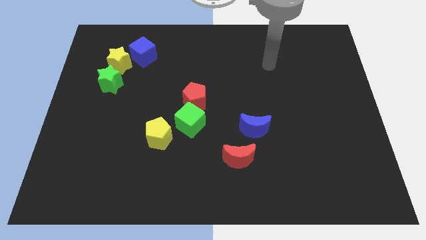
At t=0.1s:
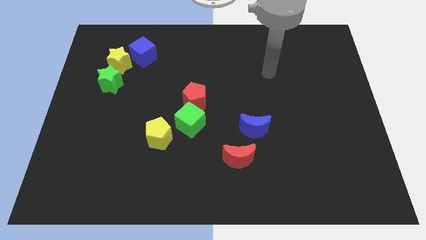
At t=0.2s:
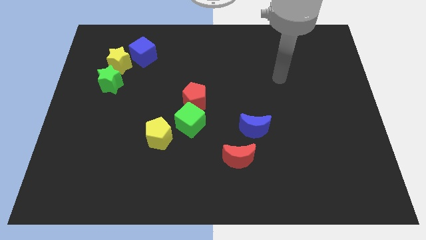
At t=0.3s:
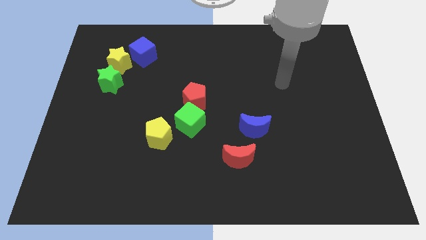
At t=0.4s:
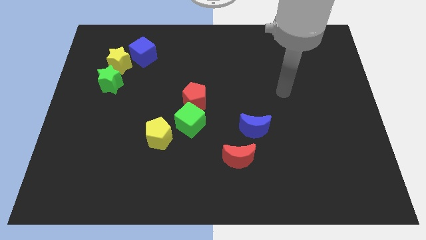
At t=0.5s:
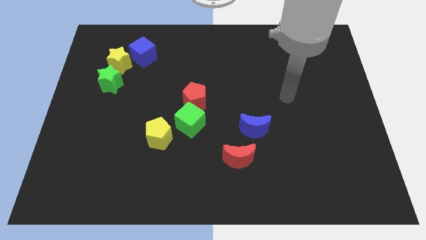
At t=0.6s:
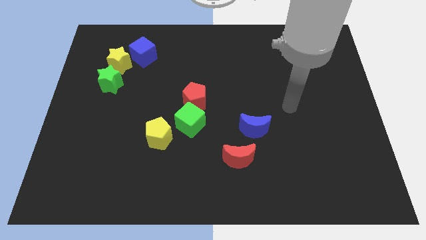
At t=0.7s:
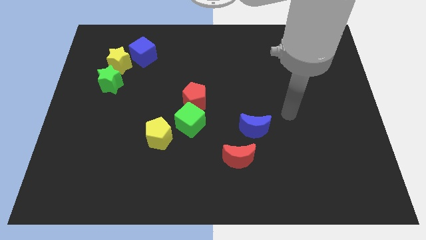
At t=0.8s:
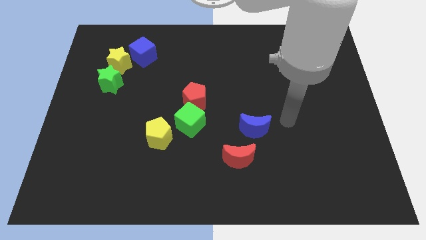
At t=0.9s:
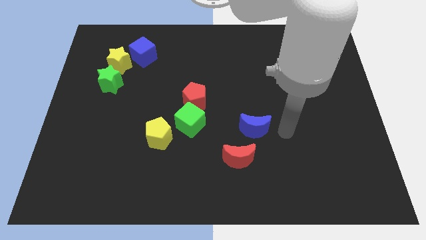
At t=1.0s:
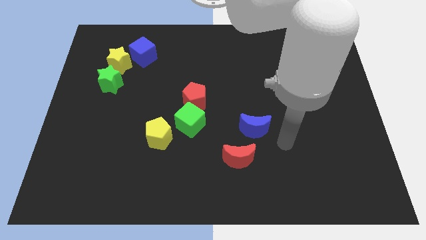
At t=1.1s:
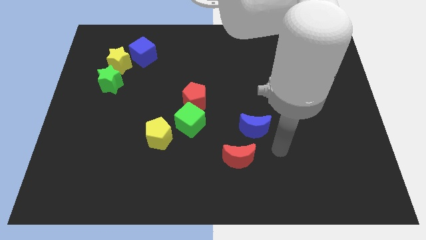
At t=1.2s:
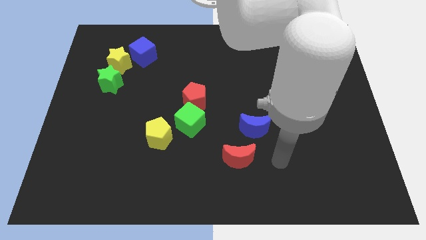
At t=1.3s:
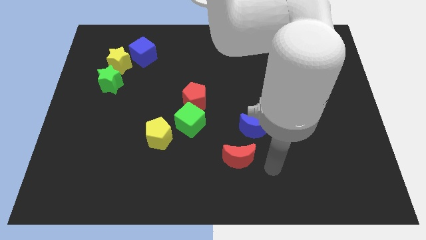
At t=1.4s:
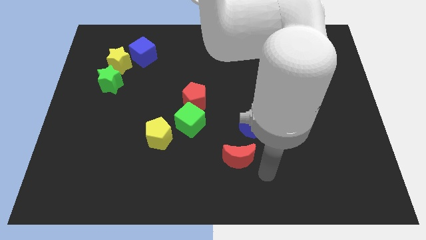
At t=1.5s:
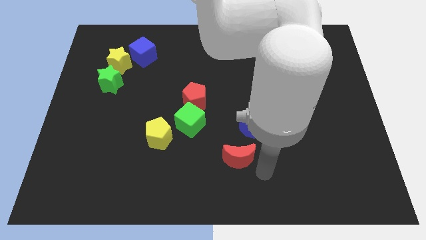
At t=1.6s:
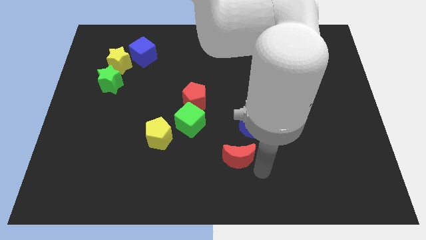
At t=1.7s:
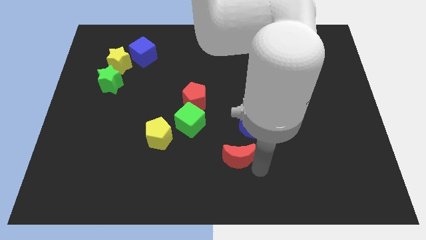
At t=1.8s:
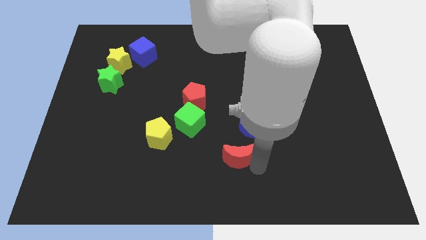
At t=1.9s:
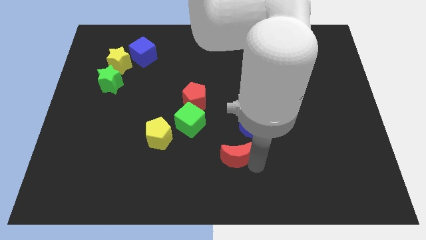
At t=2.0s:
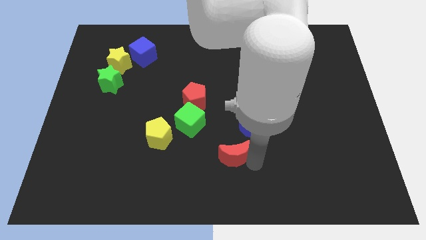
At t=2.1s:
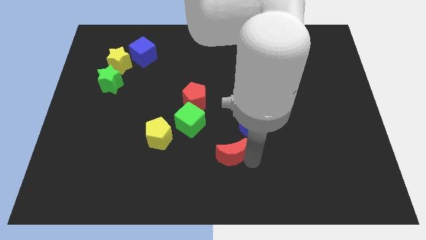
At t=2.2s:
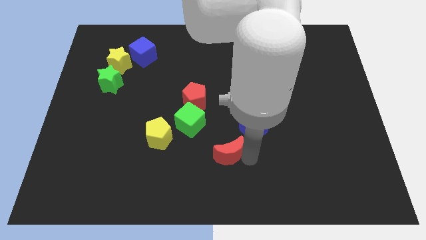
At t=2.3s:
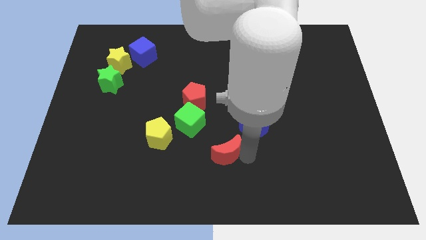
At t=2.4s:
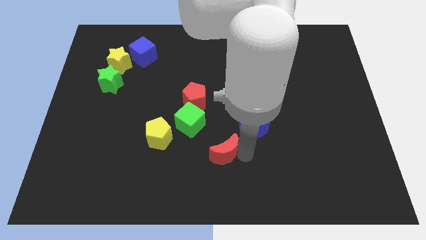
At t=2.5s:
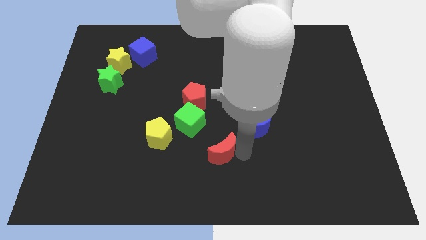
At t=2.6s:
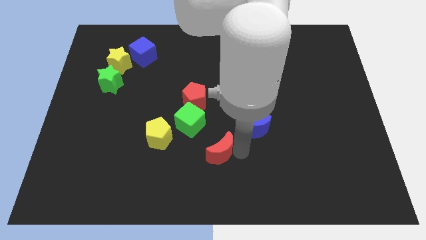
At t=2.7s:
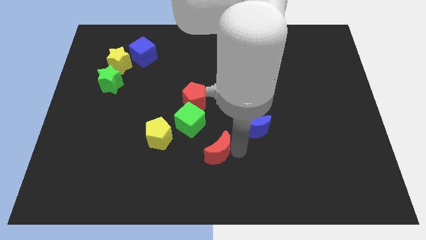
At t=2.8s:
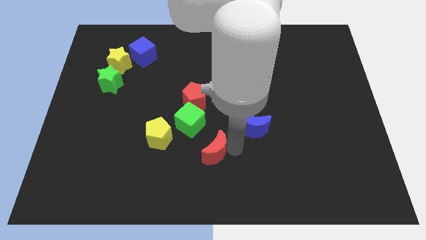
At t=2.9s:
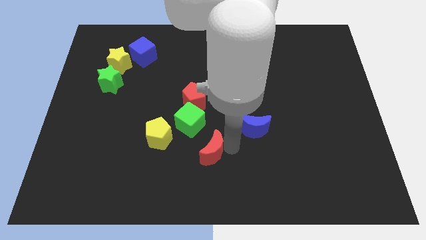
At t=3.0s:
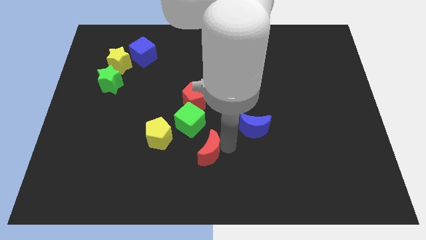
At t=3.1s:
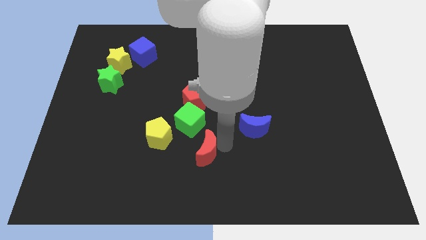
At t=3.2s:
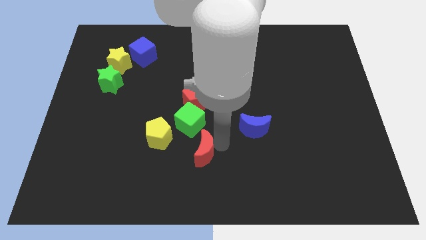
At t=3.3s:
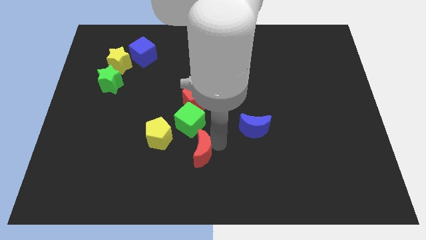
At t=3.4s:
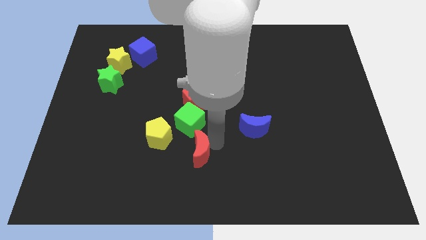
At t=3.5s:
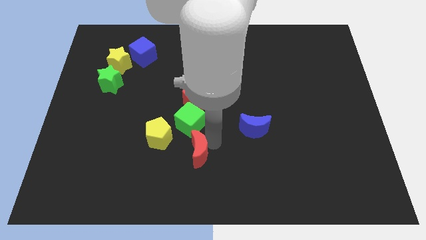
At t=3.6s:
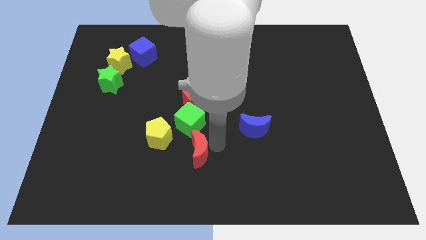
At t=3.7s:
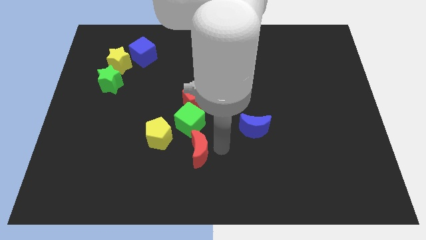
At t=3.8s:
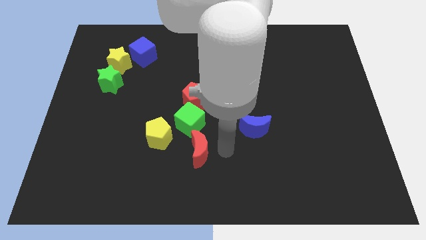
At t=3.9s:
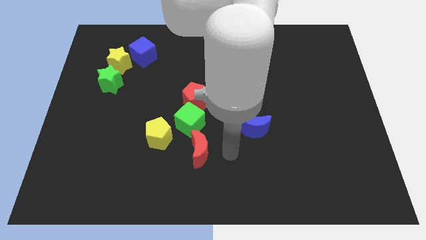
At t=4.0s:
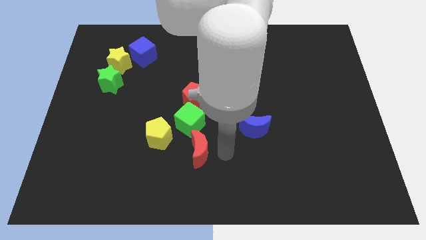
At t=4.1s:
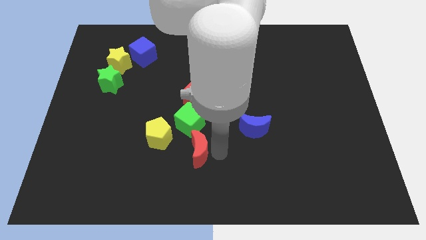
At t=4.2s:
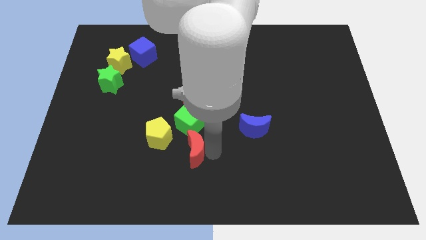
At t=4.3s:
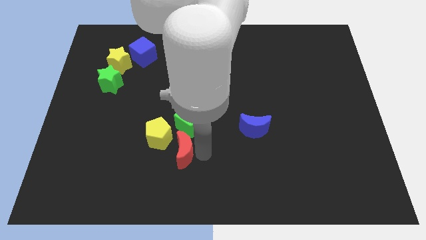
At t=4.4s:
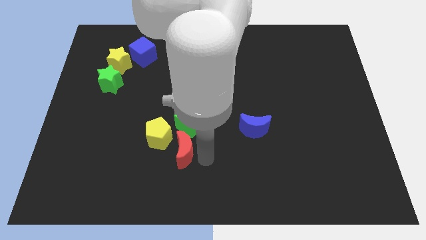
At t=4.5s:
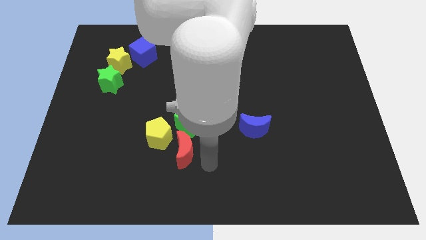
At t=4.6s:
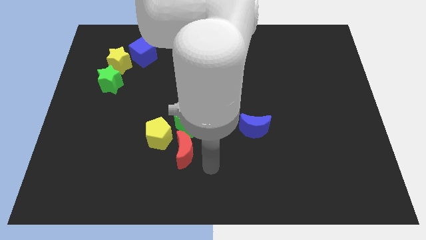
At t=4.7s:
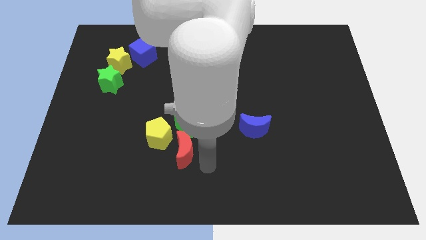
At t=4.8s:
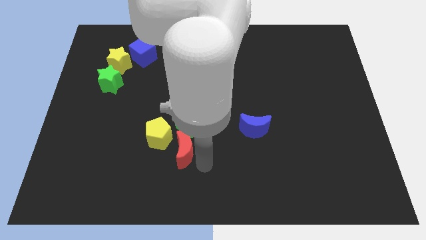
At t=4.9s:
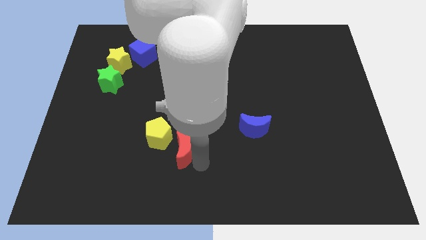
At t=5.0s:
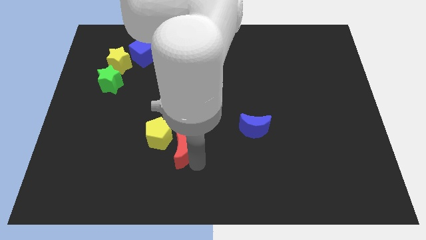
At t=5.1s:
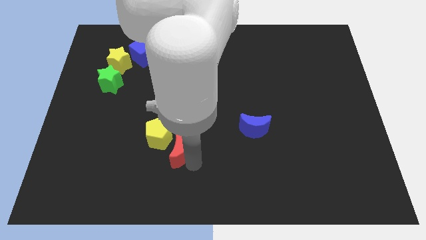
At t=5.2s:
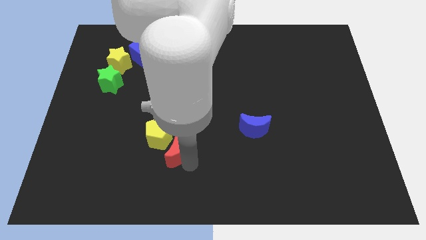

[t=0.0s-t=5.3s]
move the red moon towards the yellow pentagon

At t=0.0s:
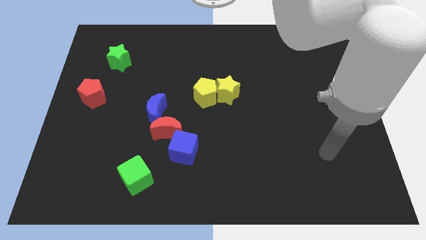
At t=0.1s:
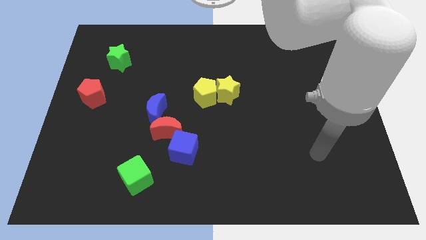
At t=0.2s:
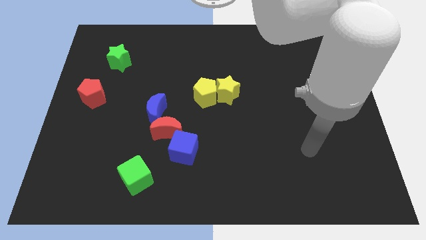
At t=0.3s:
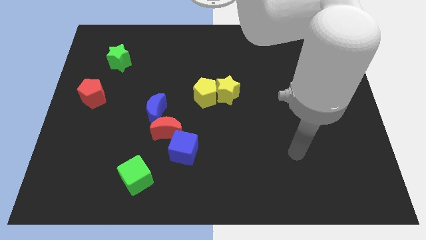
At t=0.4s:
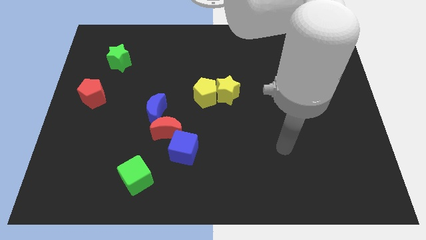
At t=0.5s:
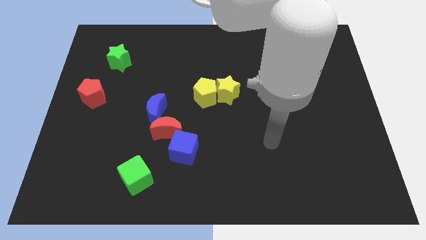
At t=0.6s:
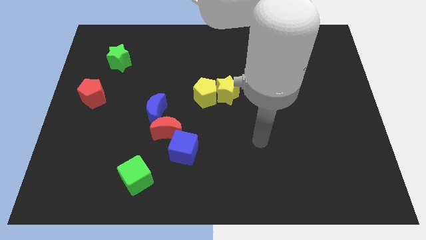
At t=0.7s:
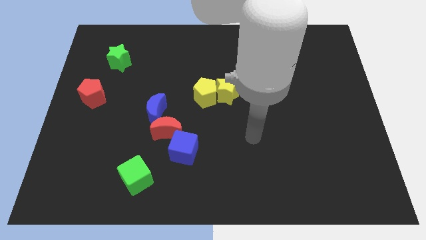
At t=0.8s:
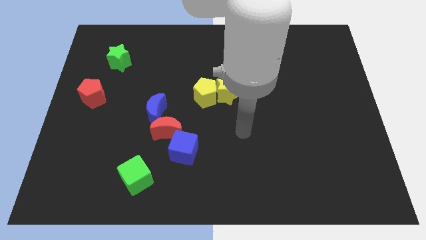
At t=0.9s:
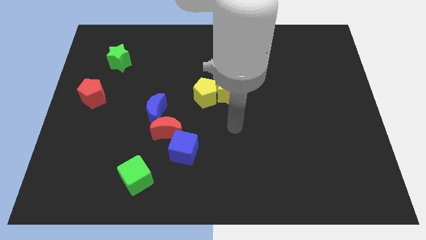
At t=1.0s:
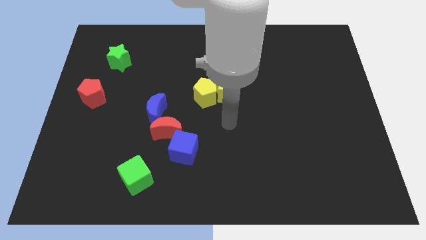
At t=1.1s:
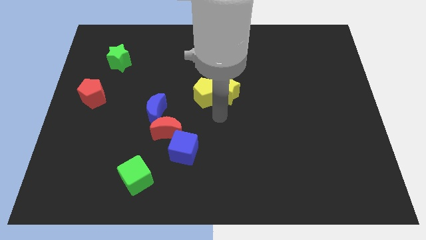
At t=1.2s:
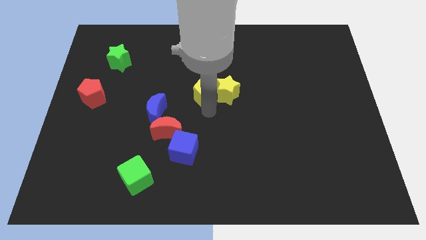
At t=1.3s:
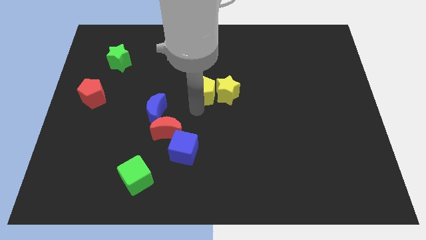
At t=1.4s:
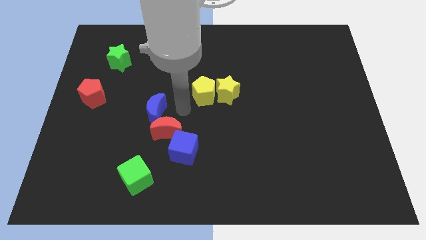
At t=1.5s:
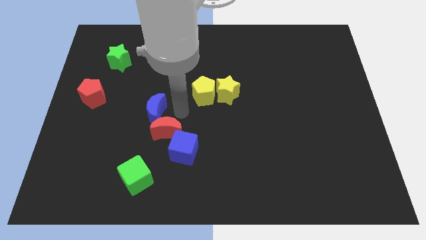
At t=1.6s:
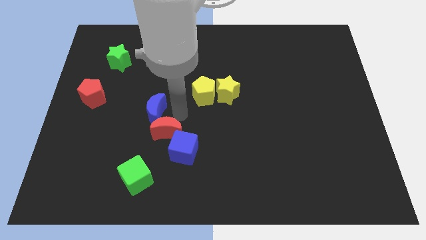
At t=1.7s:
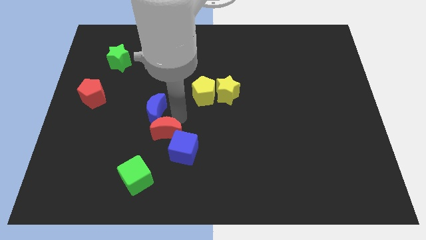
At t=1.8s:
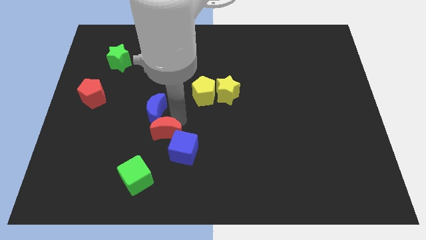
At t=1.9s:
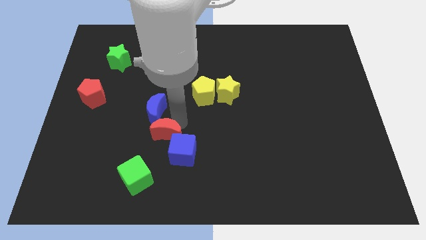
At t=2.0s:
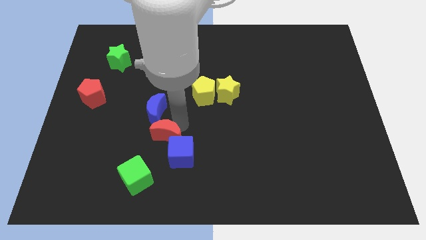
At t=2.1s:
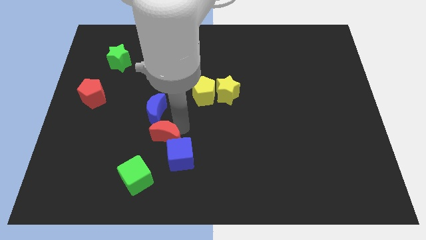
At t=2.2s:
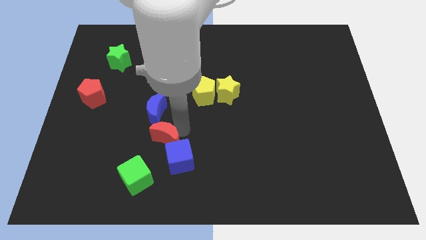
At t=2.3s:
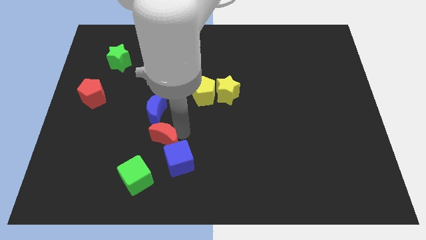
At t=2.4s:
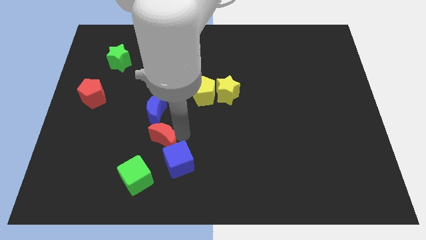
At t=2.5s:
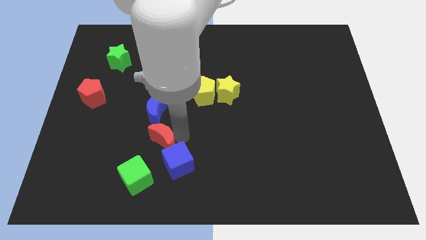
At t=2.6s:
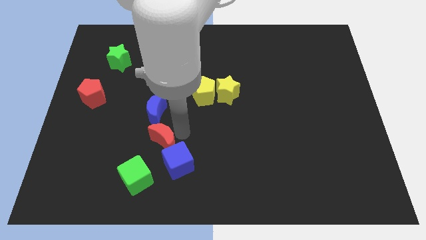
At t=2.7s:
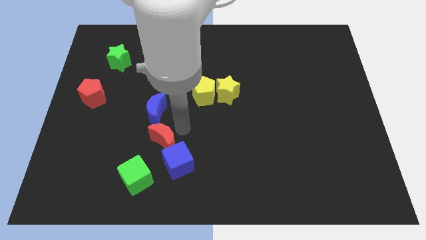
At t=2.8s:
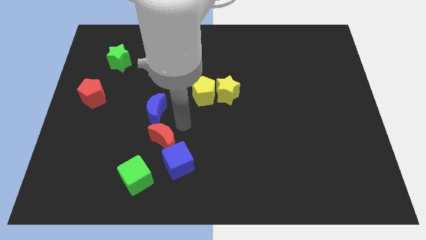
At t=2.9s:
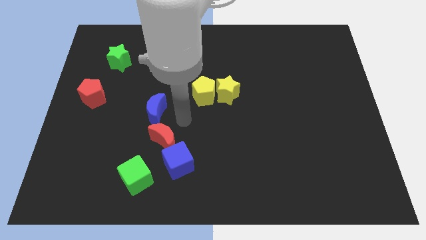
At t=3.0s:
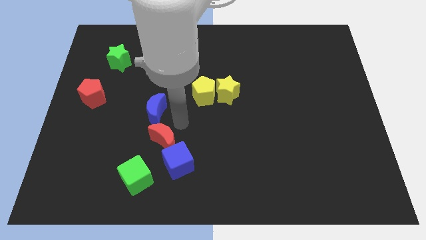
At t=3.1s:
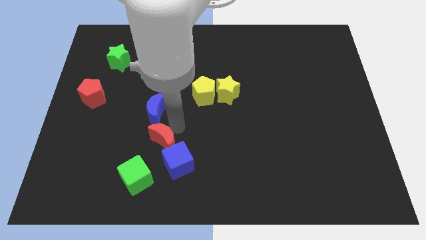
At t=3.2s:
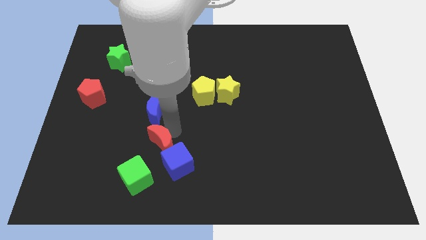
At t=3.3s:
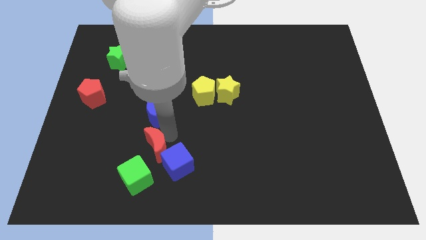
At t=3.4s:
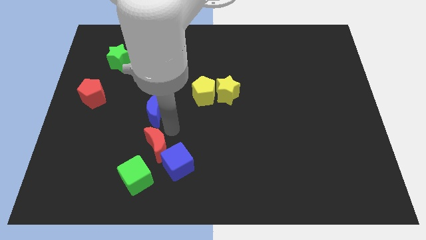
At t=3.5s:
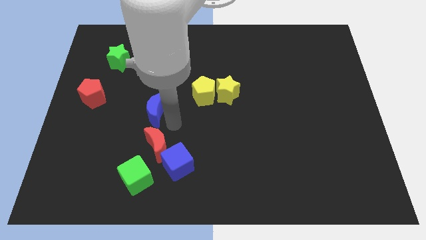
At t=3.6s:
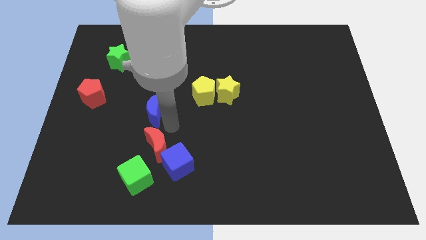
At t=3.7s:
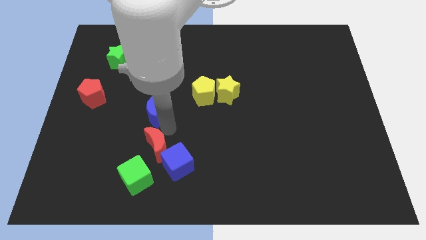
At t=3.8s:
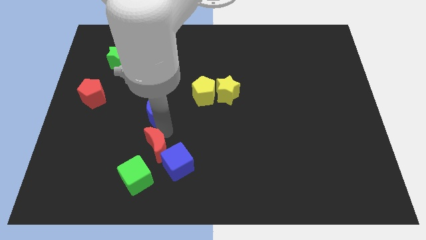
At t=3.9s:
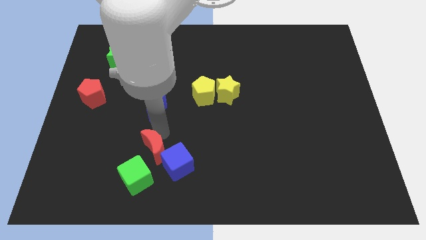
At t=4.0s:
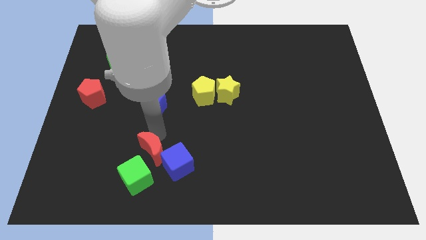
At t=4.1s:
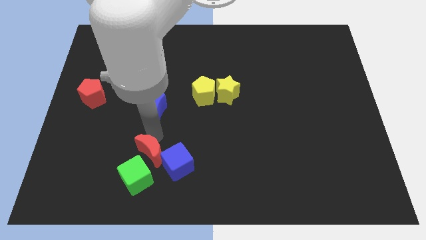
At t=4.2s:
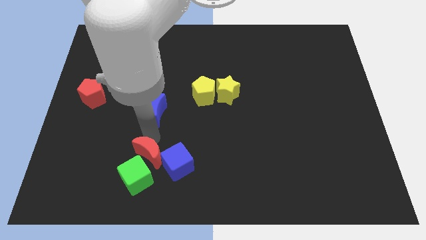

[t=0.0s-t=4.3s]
move the red moon close to the green cube
